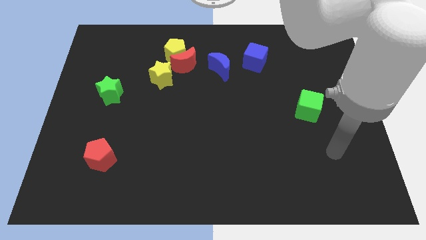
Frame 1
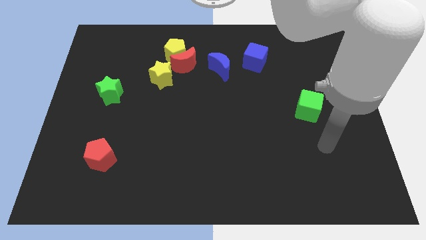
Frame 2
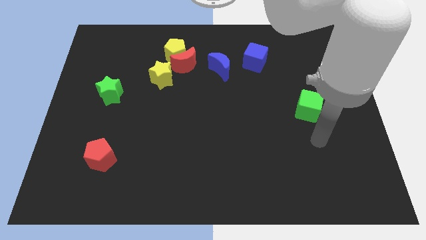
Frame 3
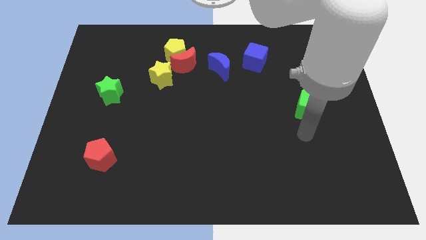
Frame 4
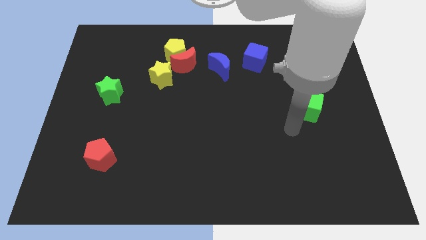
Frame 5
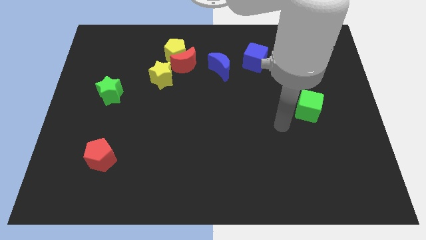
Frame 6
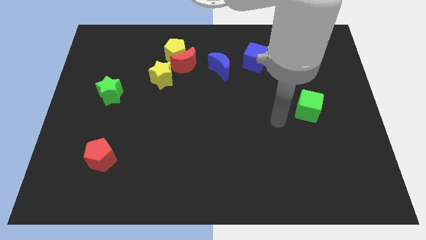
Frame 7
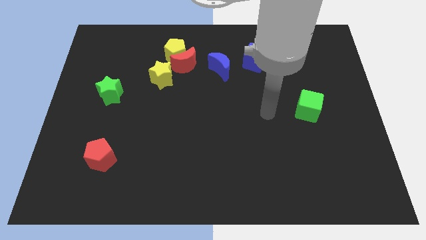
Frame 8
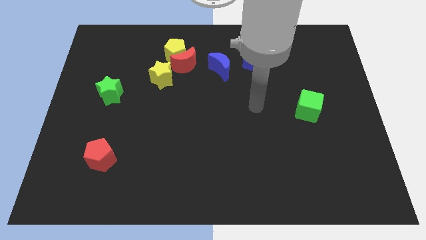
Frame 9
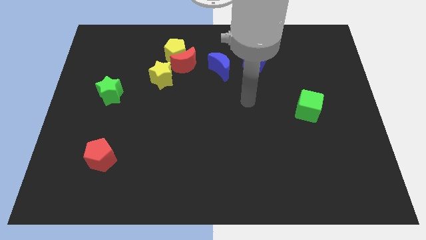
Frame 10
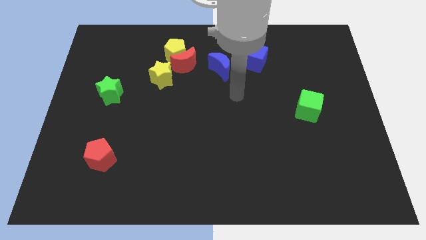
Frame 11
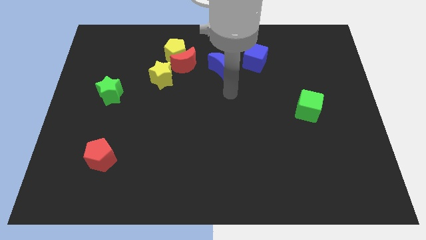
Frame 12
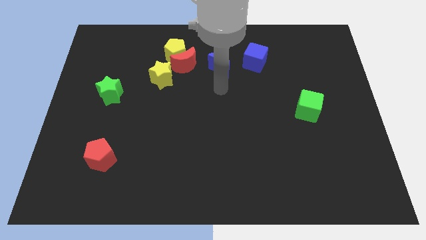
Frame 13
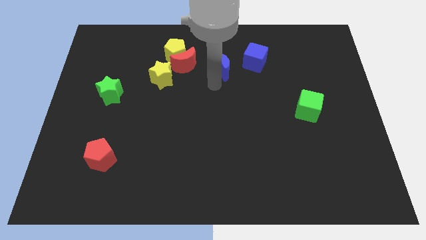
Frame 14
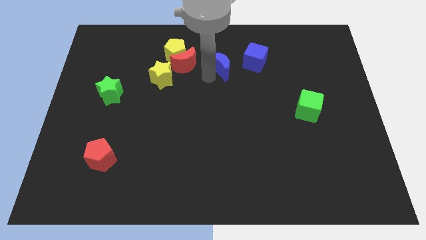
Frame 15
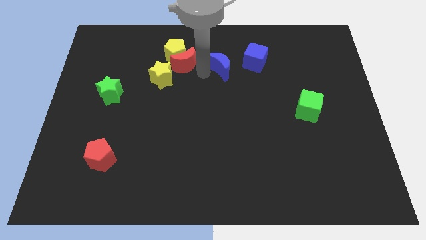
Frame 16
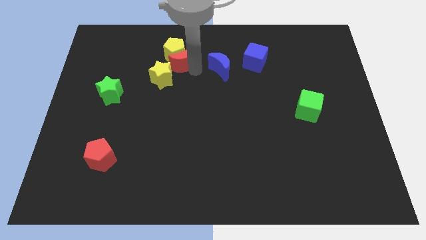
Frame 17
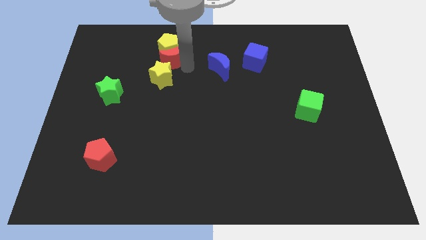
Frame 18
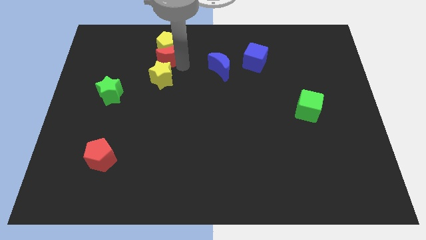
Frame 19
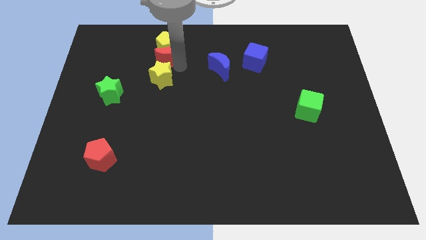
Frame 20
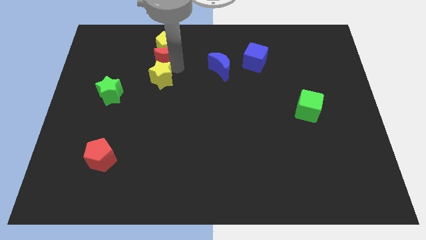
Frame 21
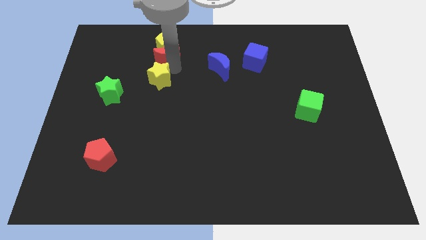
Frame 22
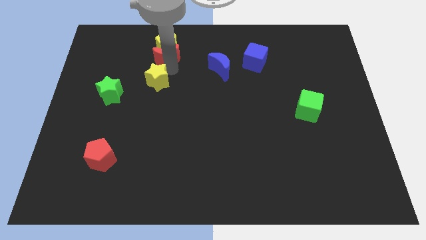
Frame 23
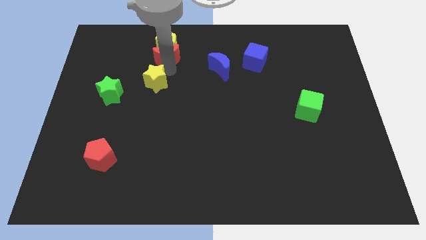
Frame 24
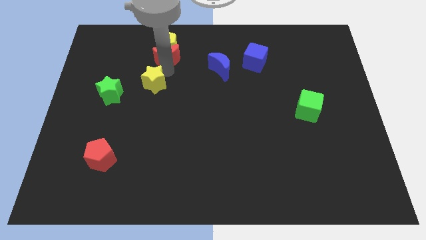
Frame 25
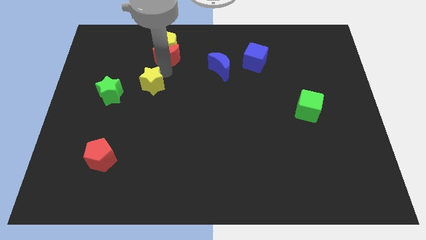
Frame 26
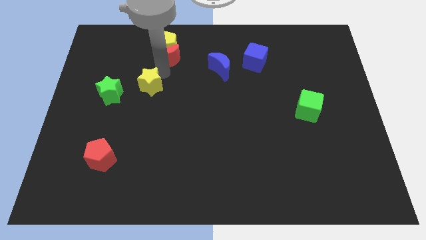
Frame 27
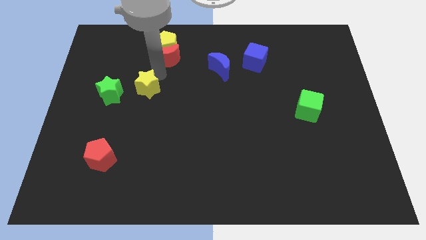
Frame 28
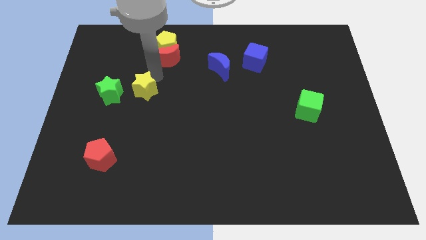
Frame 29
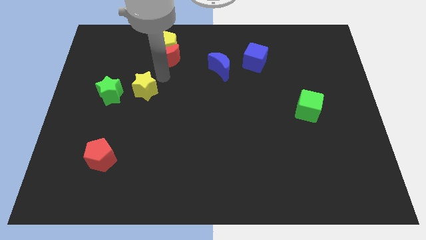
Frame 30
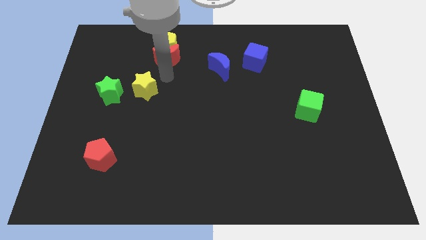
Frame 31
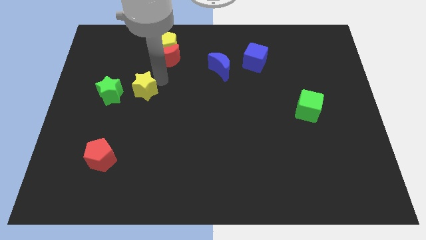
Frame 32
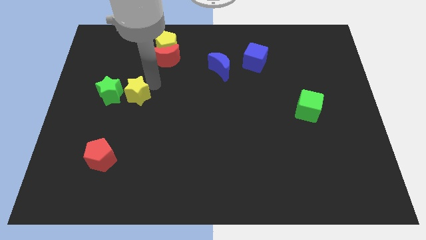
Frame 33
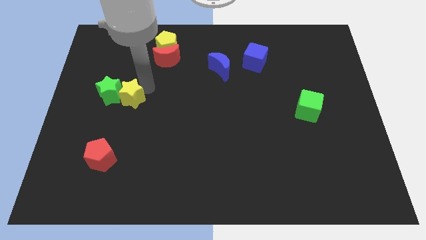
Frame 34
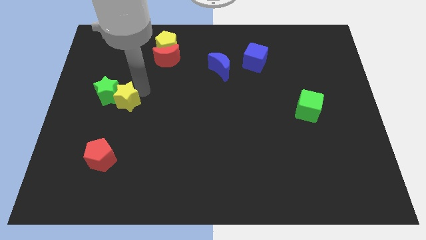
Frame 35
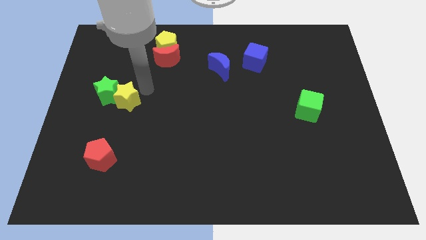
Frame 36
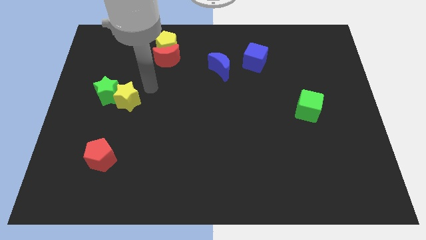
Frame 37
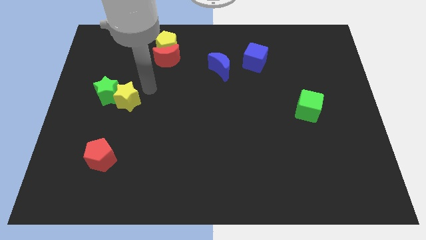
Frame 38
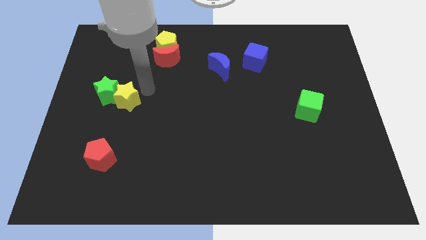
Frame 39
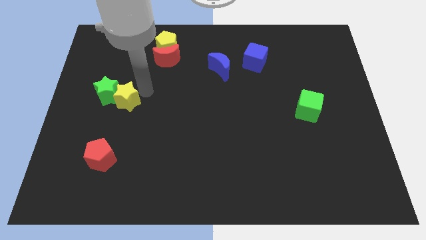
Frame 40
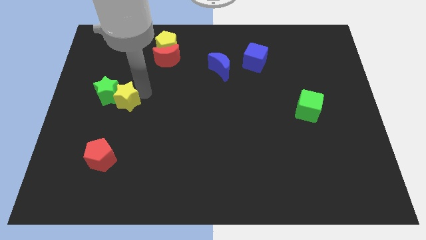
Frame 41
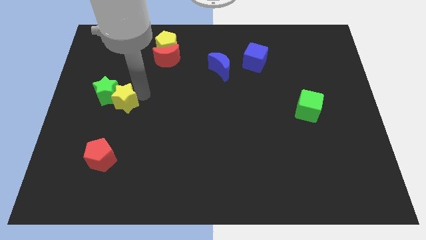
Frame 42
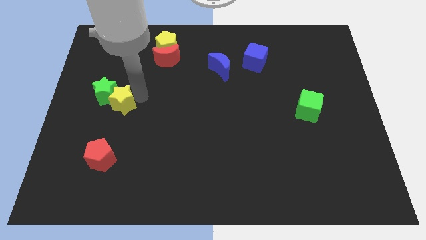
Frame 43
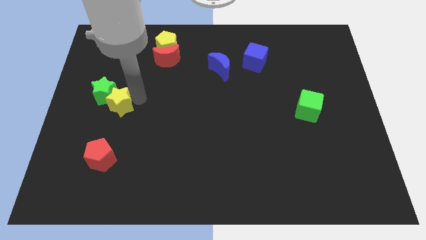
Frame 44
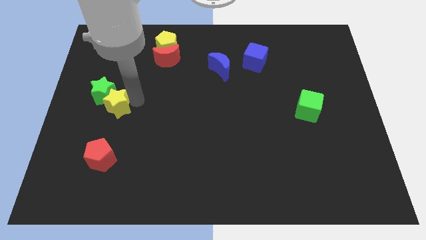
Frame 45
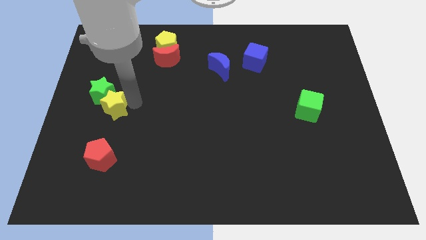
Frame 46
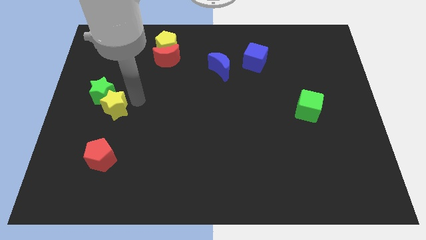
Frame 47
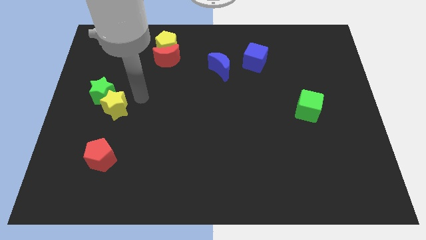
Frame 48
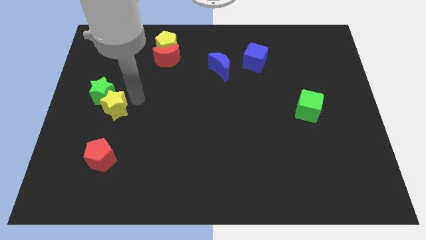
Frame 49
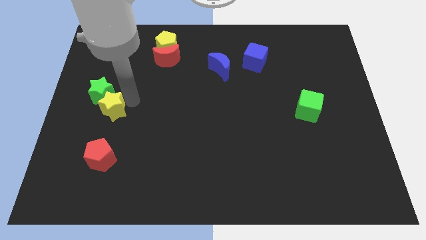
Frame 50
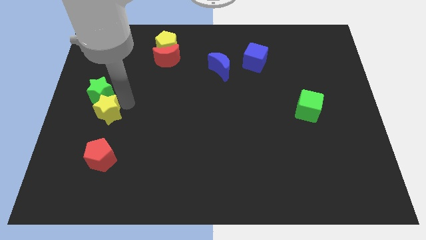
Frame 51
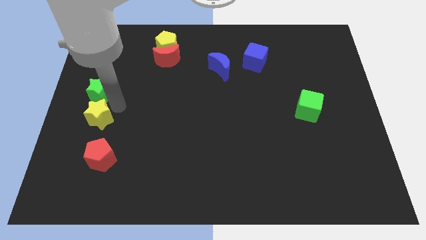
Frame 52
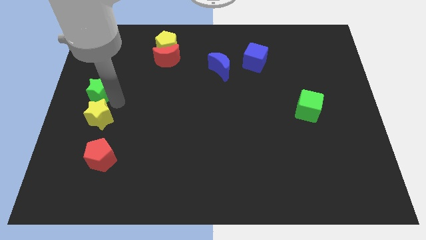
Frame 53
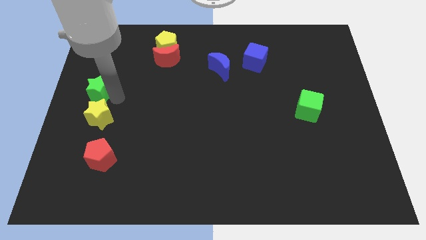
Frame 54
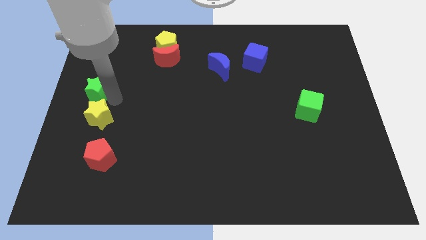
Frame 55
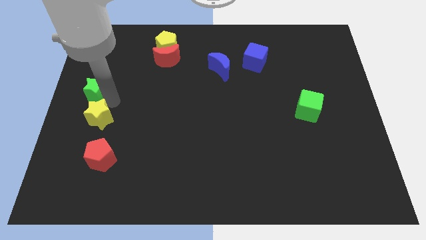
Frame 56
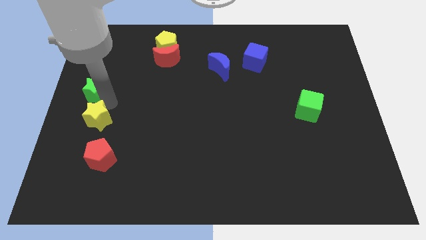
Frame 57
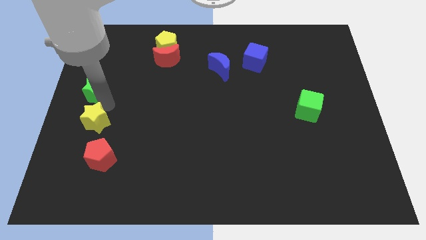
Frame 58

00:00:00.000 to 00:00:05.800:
push the yellow star diagonally up and to the left of the red pentagon
